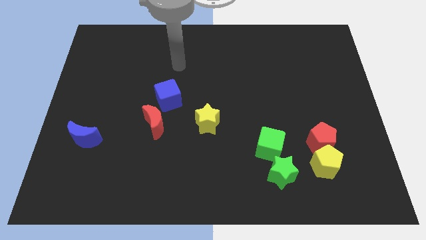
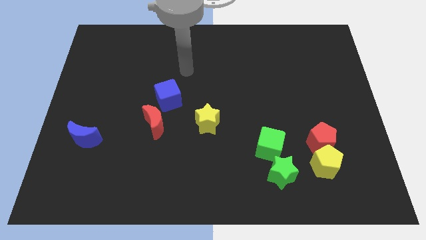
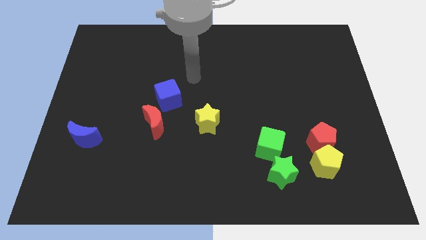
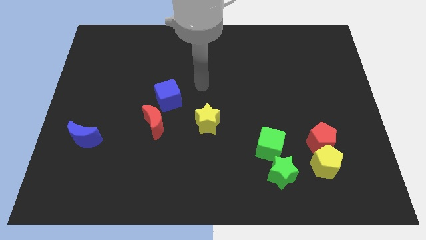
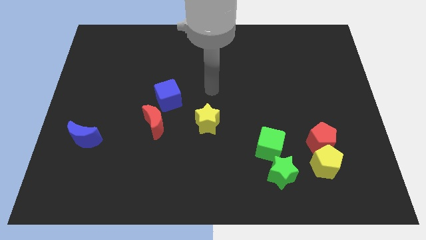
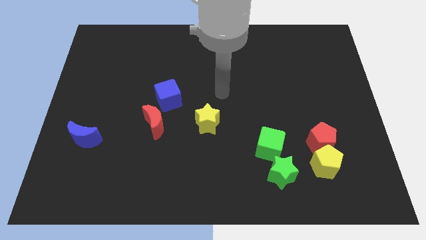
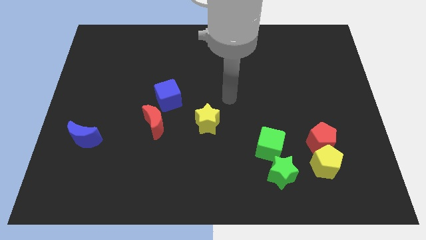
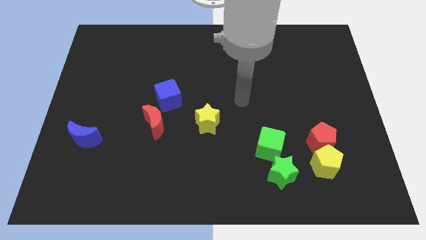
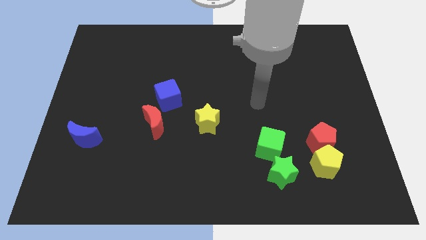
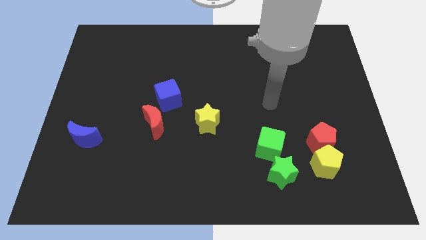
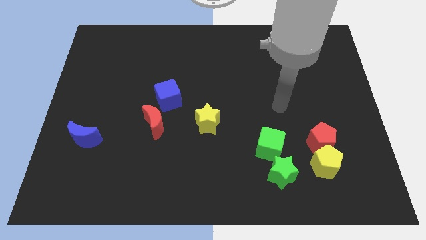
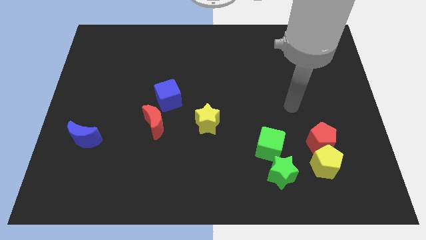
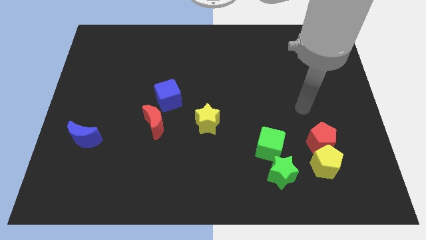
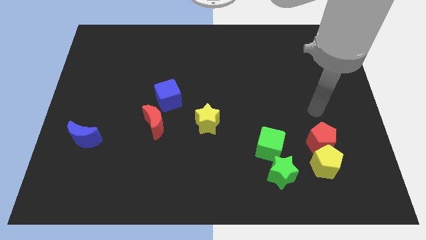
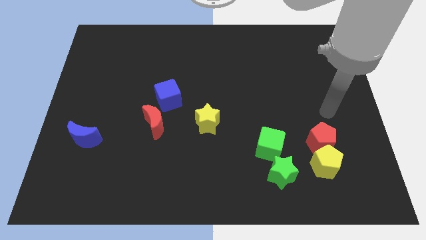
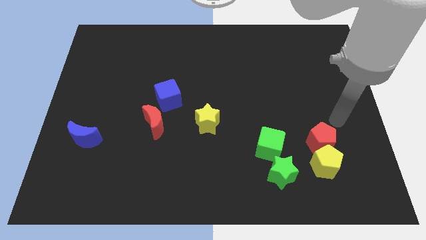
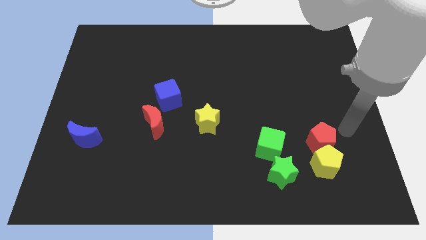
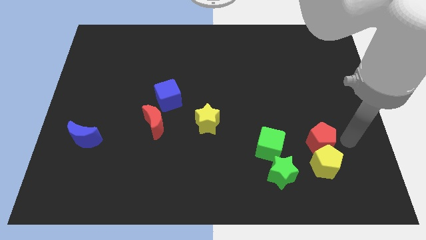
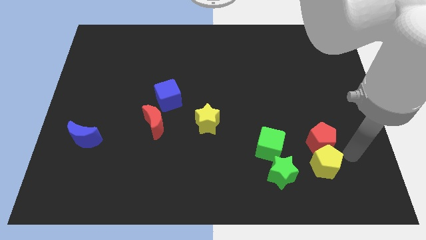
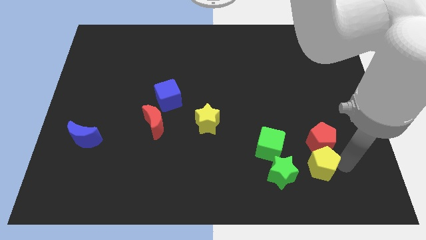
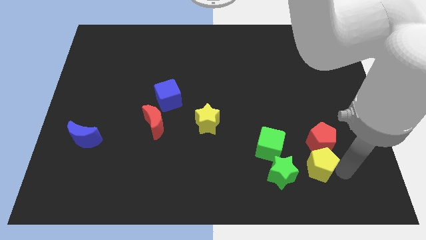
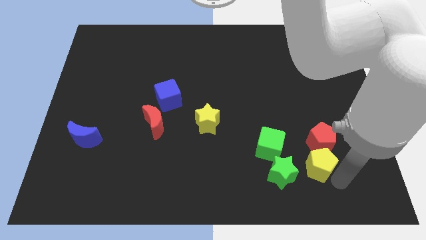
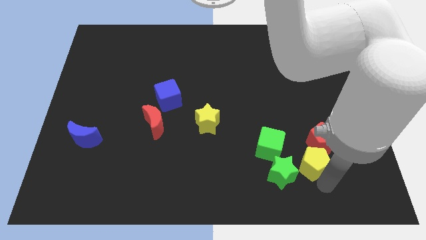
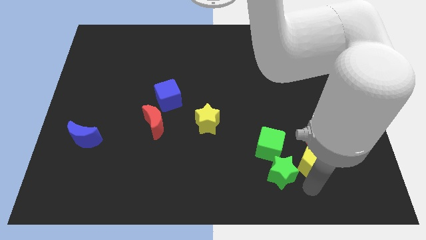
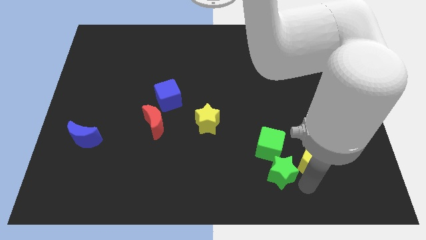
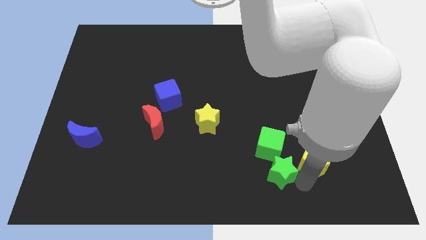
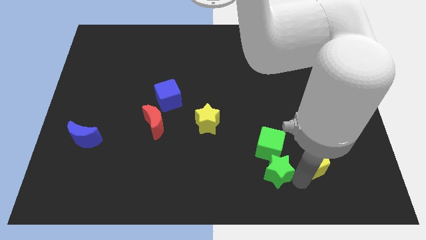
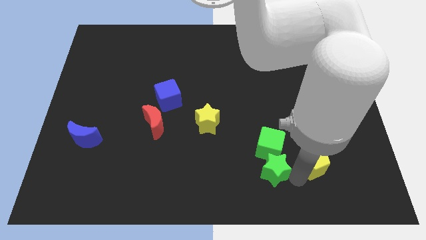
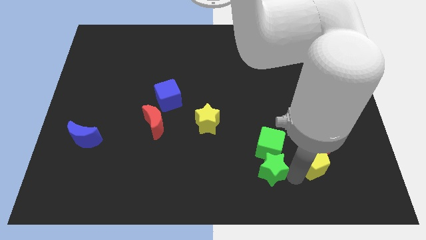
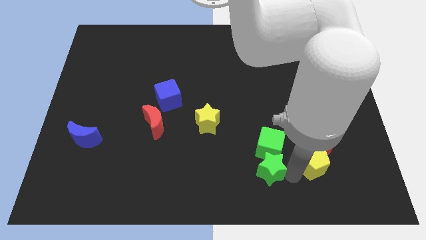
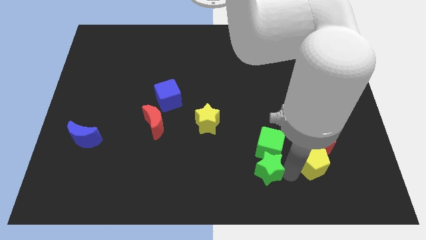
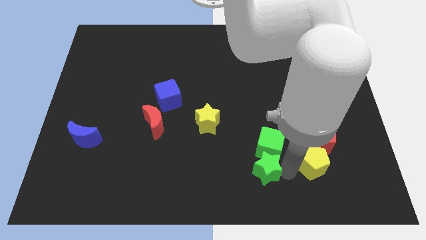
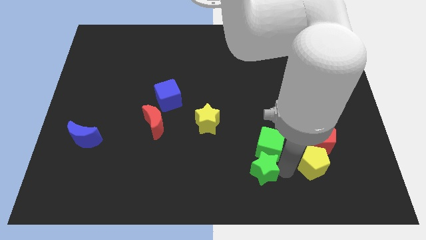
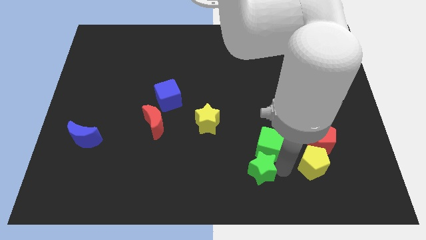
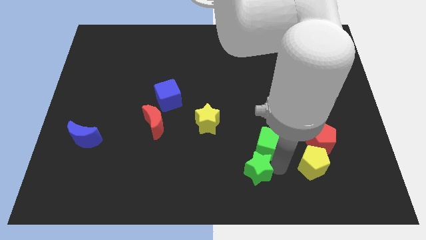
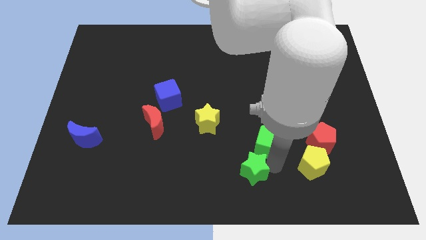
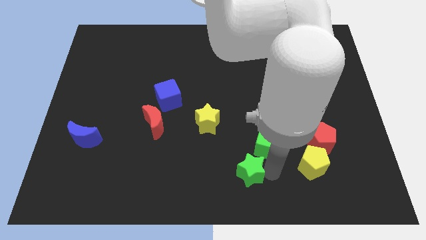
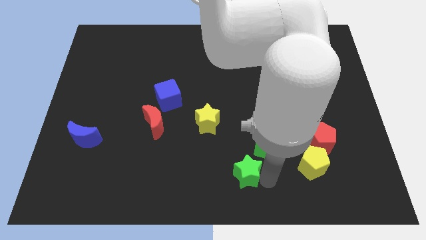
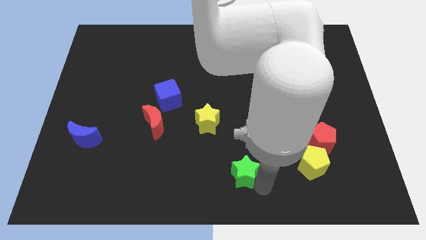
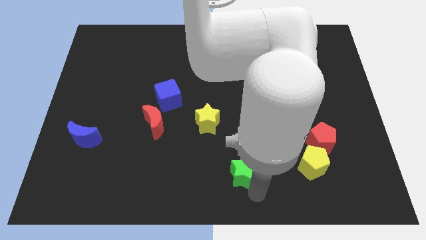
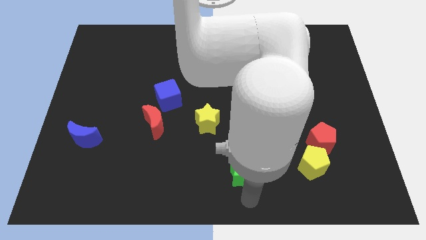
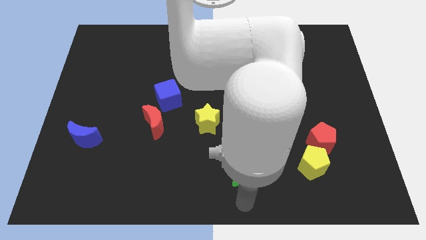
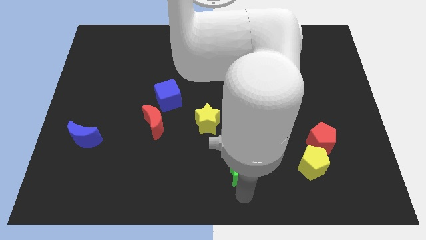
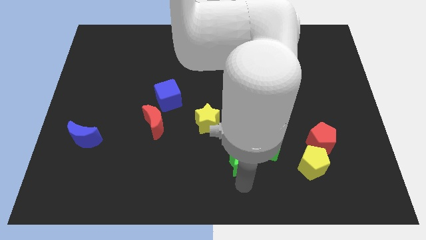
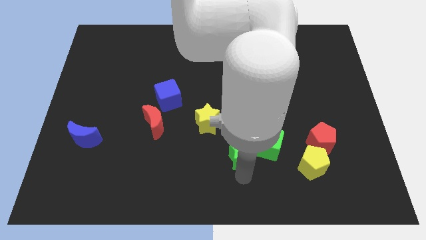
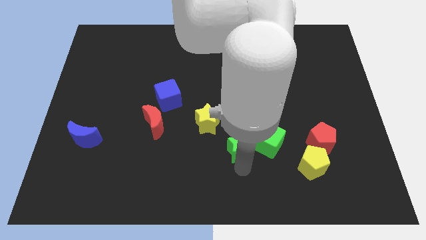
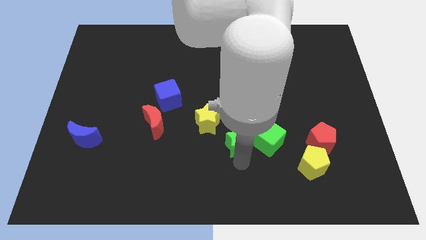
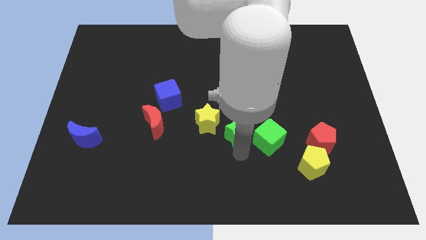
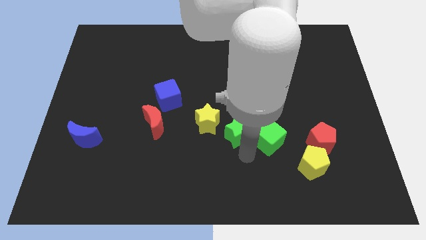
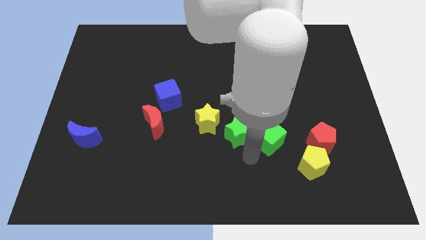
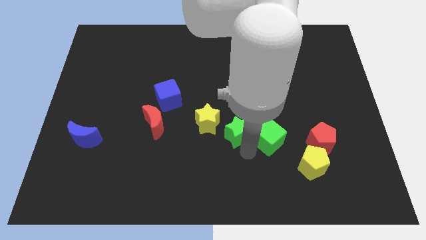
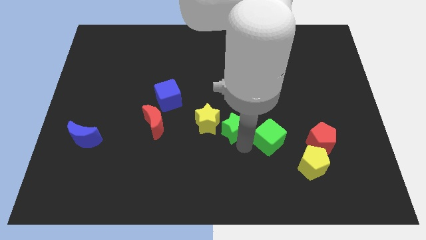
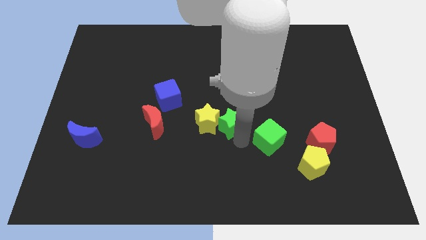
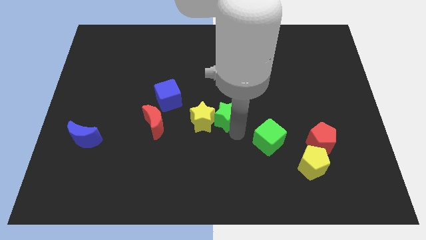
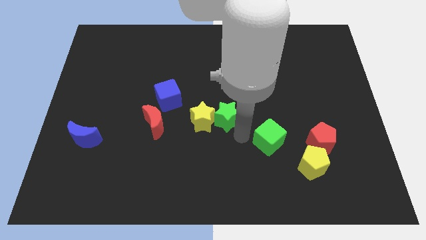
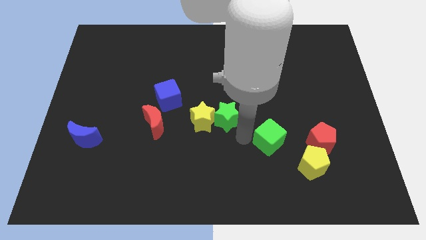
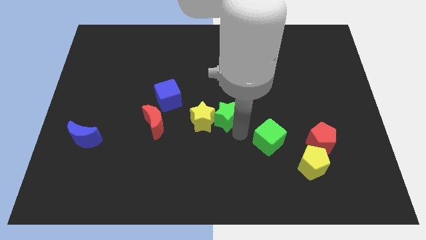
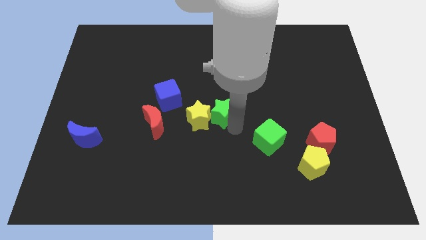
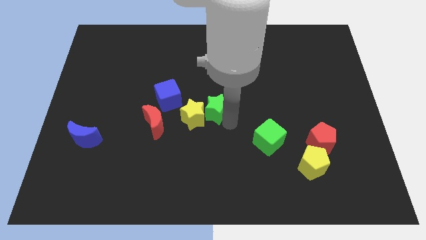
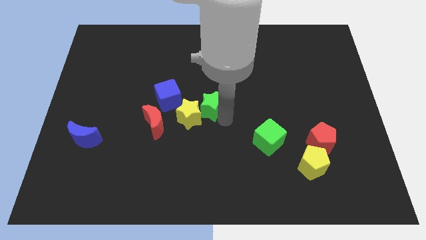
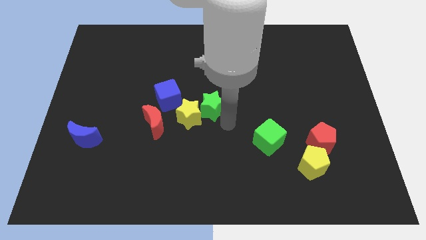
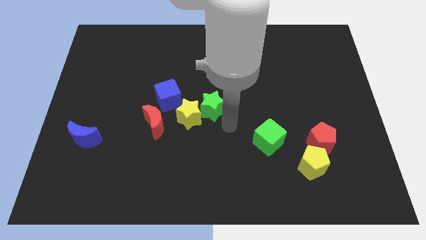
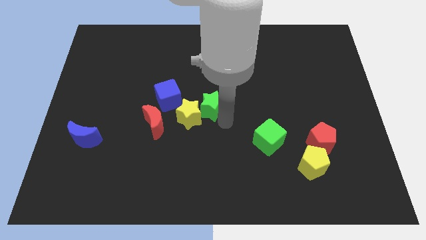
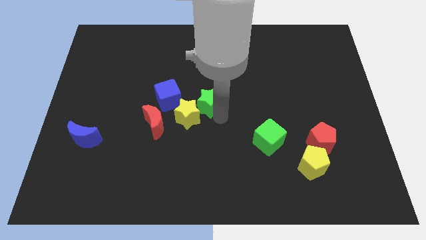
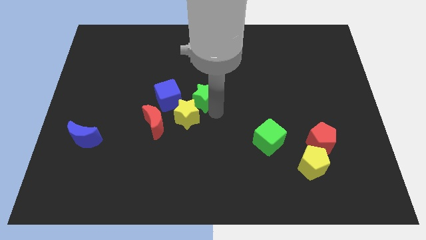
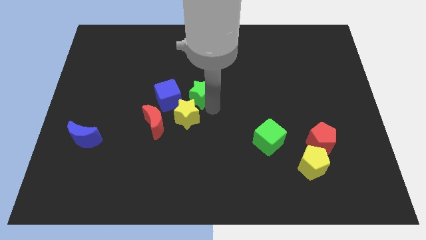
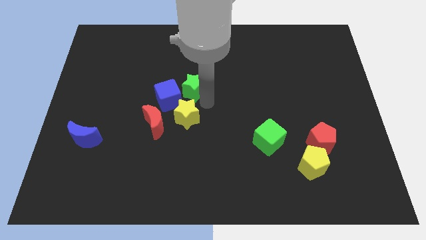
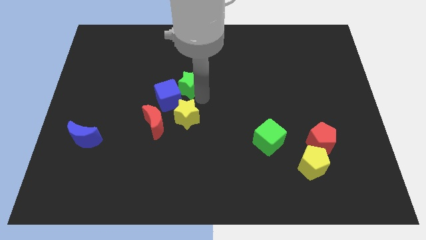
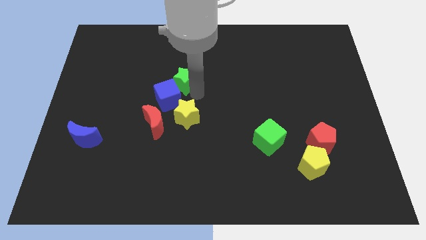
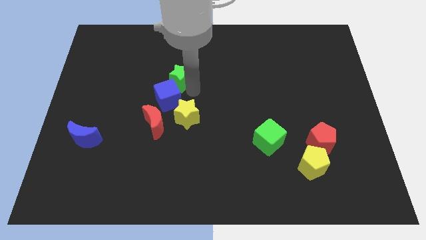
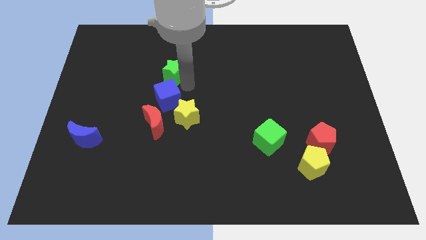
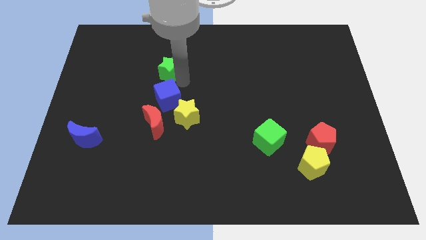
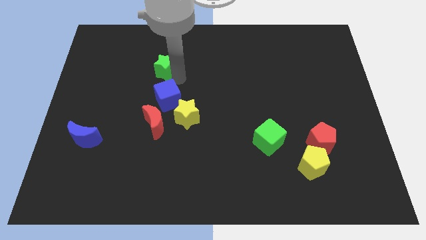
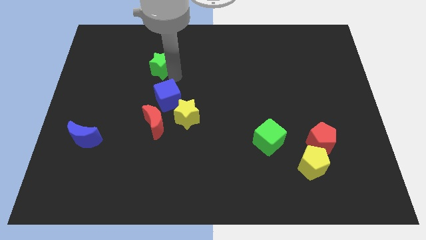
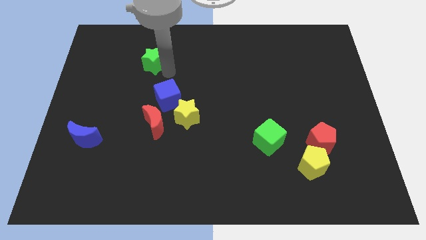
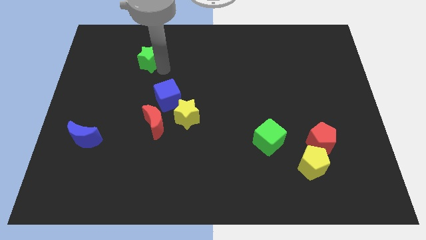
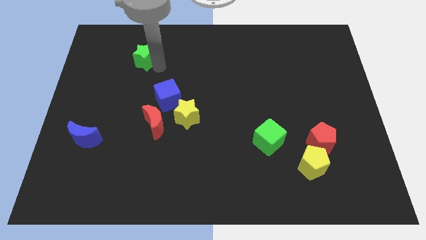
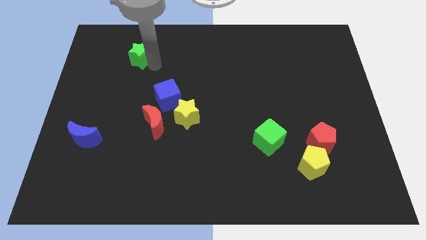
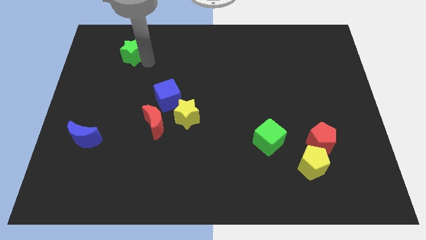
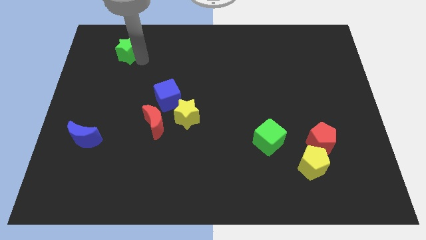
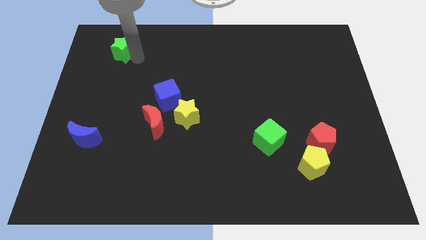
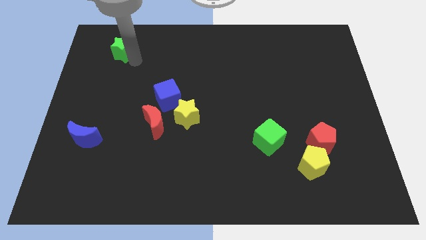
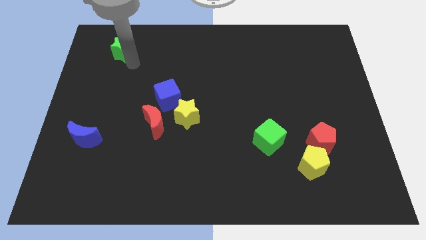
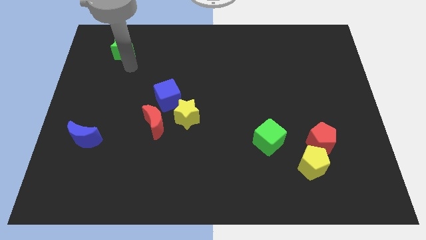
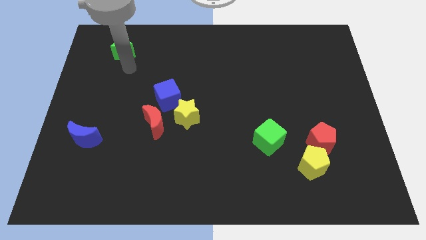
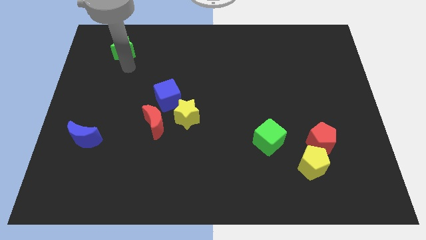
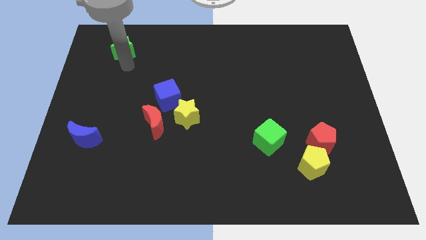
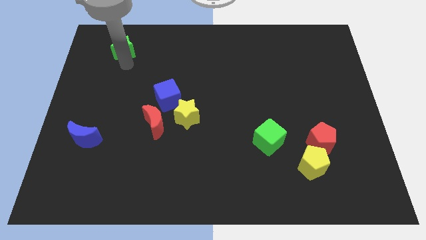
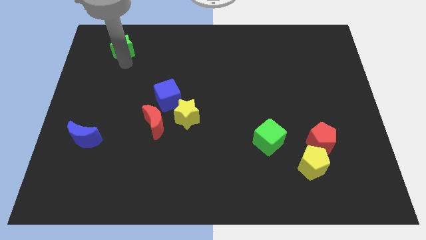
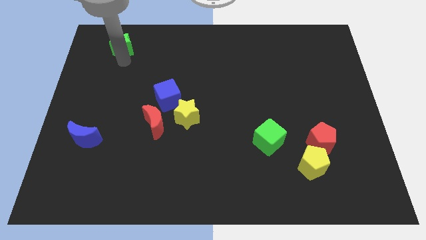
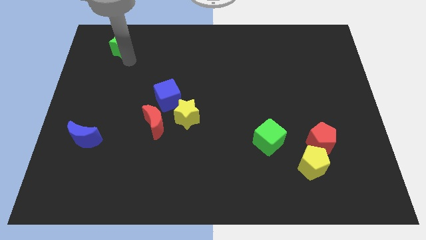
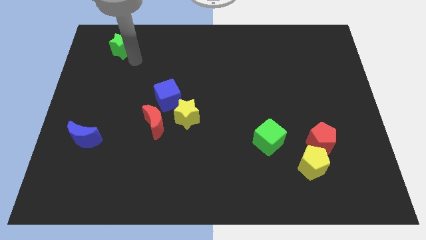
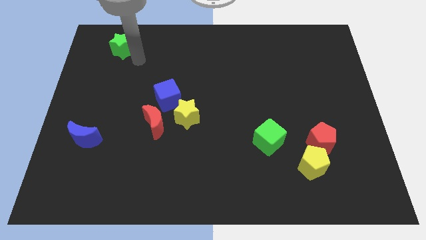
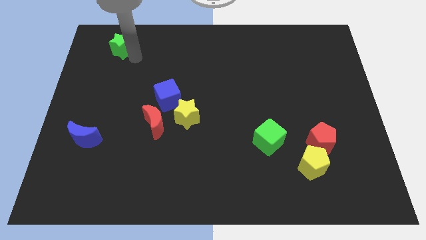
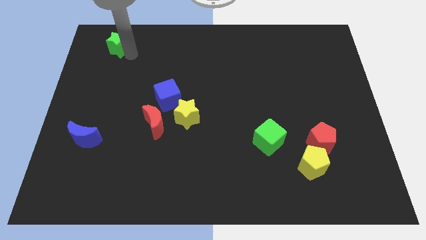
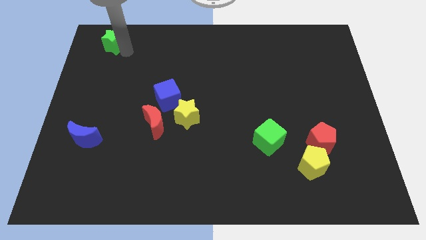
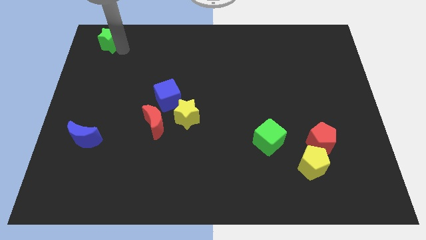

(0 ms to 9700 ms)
slide the green star to the top left corner
